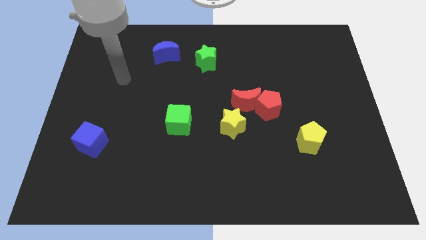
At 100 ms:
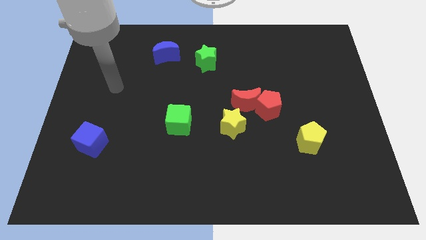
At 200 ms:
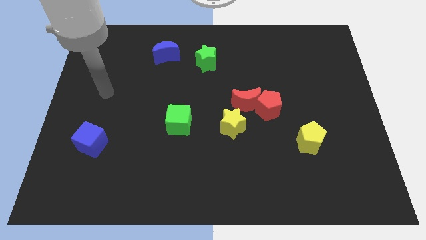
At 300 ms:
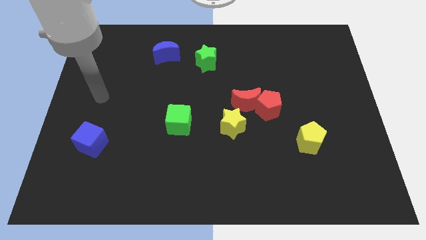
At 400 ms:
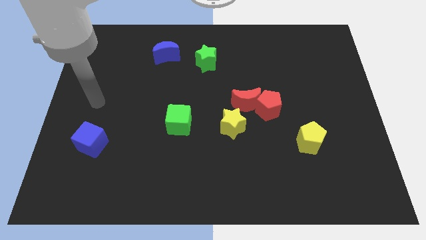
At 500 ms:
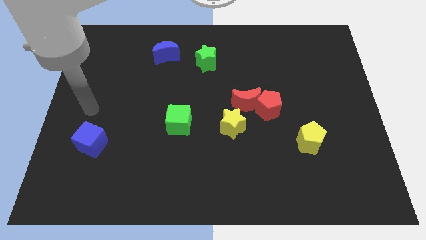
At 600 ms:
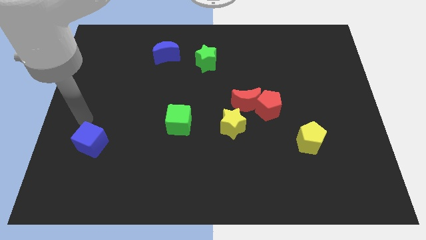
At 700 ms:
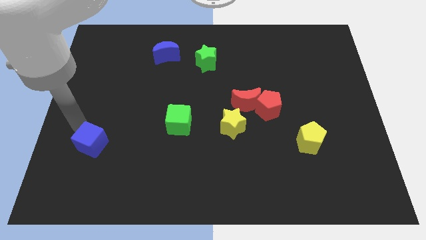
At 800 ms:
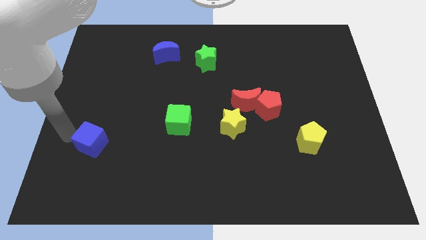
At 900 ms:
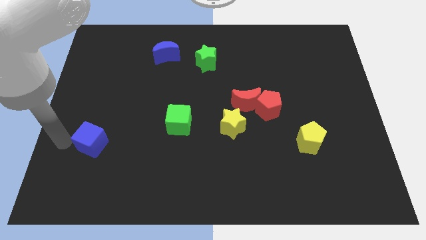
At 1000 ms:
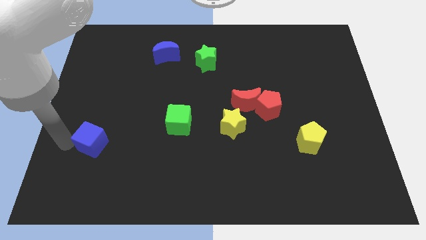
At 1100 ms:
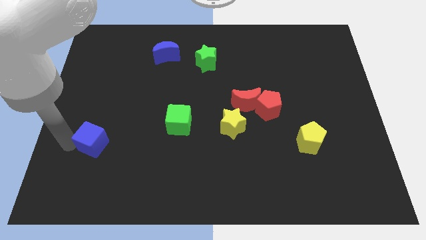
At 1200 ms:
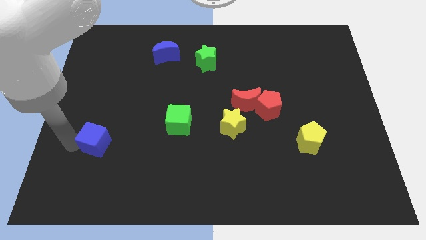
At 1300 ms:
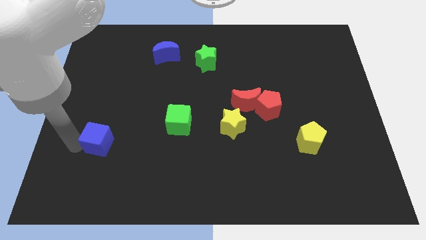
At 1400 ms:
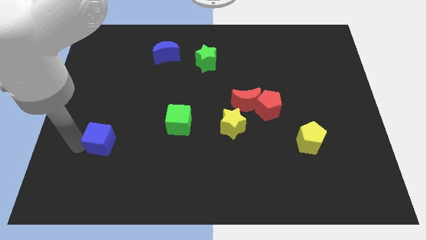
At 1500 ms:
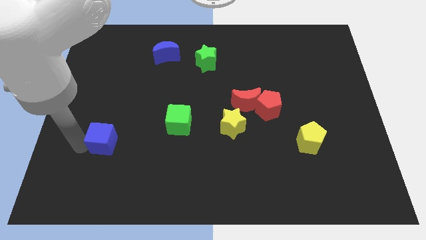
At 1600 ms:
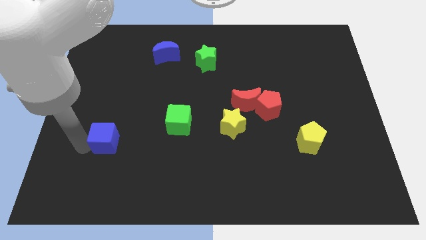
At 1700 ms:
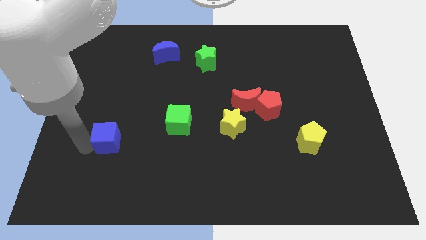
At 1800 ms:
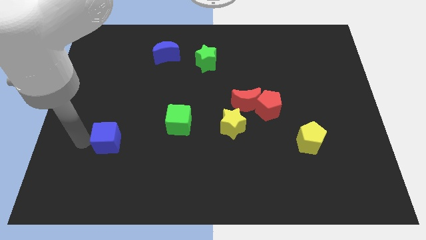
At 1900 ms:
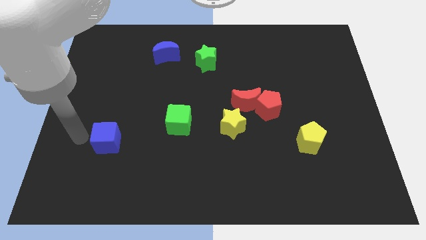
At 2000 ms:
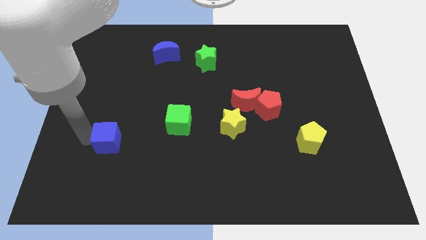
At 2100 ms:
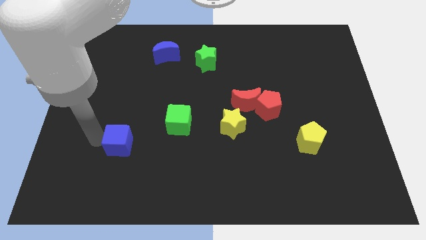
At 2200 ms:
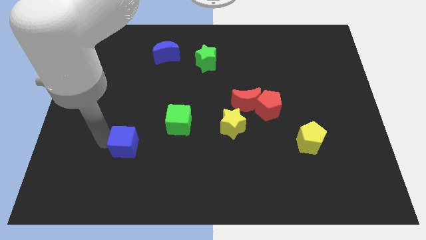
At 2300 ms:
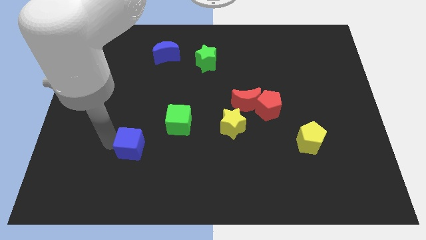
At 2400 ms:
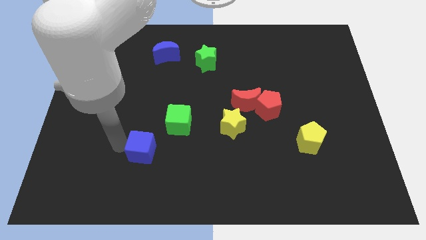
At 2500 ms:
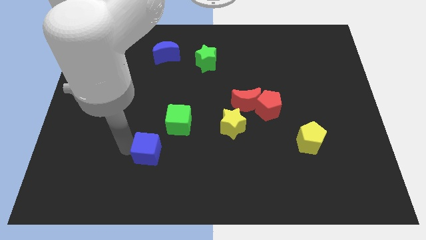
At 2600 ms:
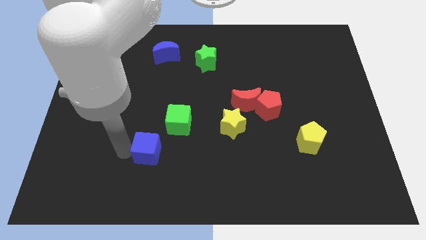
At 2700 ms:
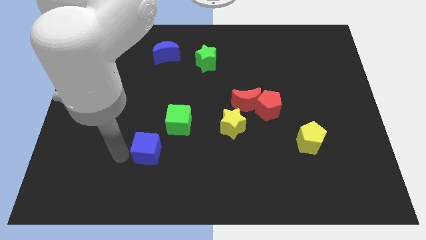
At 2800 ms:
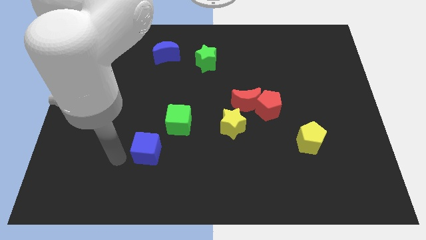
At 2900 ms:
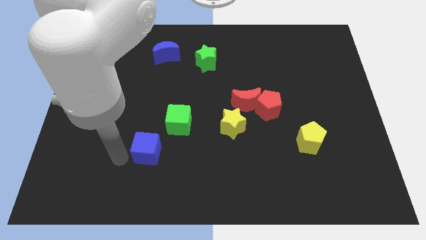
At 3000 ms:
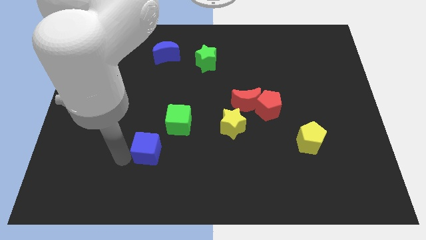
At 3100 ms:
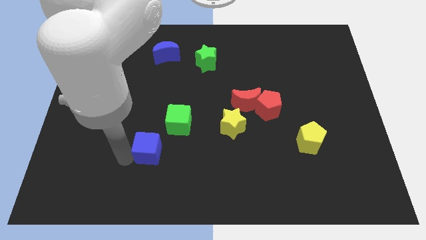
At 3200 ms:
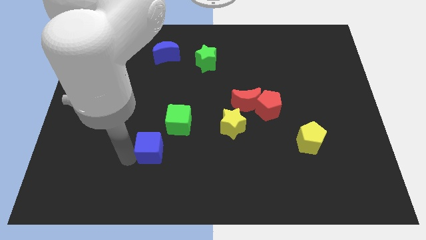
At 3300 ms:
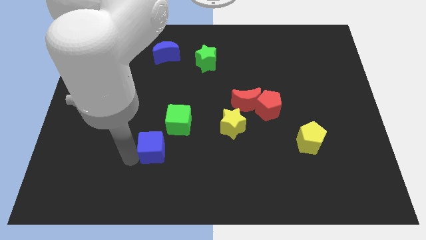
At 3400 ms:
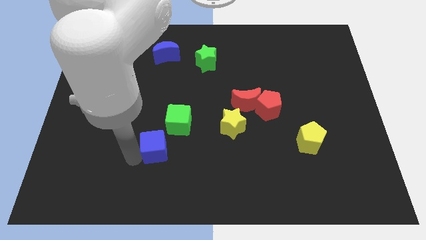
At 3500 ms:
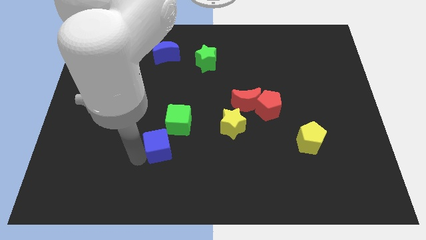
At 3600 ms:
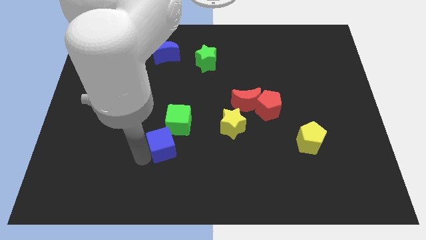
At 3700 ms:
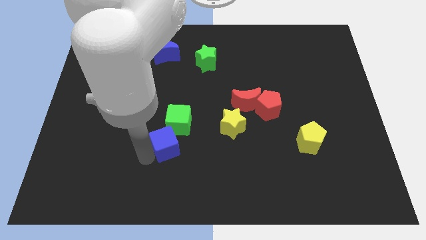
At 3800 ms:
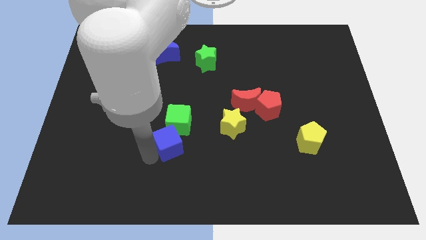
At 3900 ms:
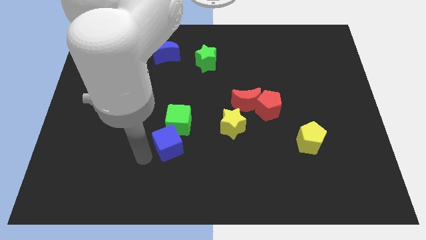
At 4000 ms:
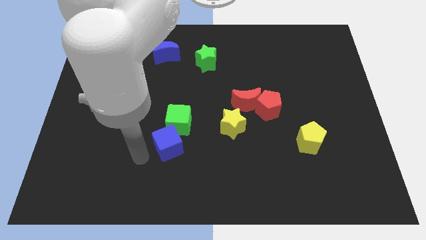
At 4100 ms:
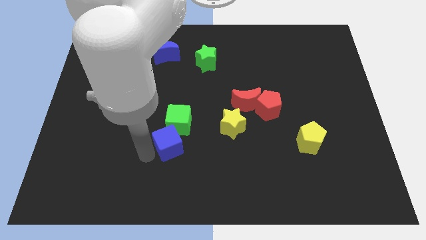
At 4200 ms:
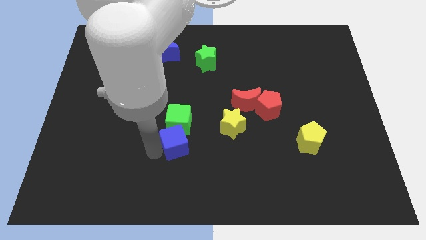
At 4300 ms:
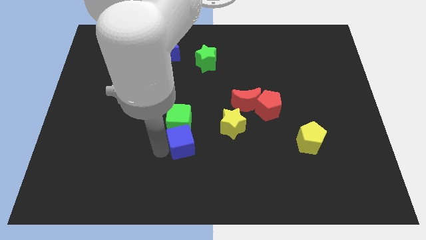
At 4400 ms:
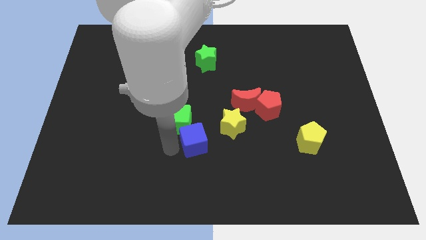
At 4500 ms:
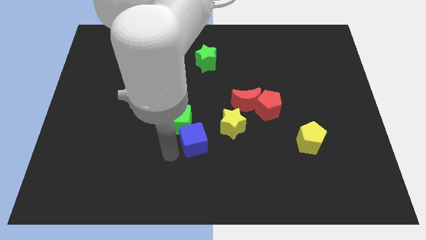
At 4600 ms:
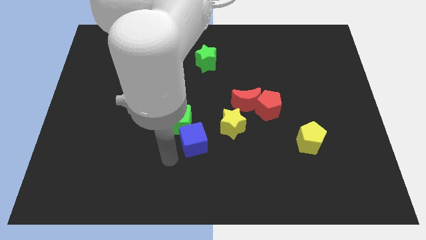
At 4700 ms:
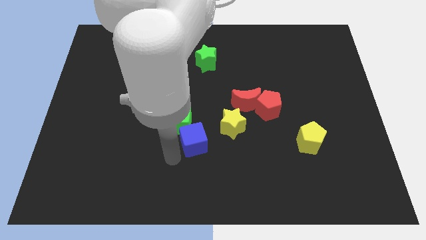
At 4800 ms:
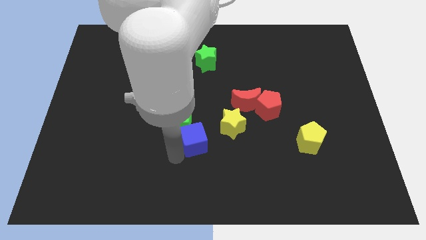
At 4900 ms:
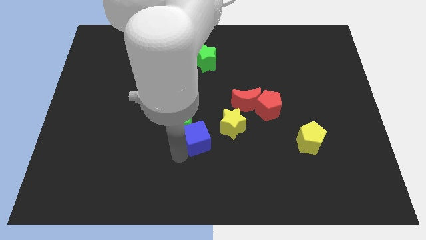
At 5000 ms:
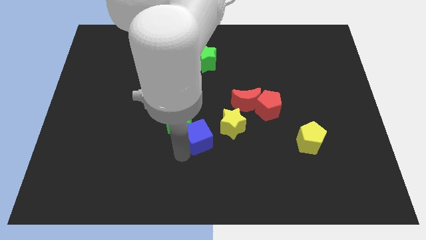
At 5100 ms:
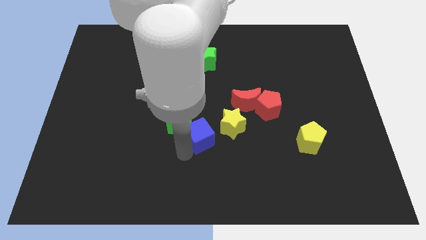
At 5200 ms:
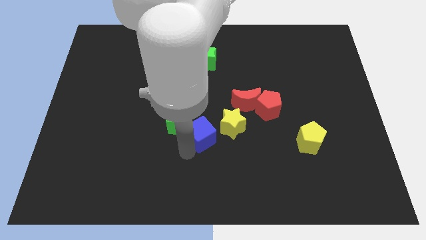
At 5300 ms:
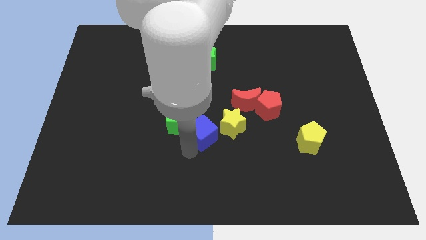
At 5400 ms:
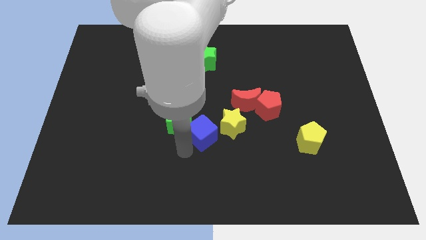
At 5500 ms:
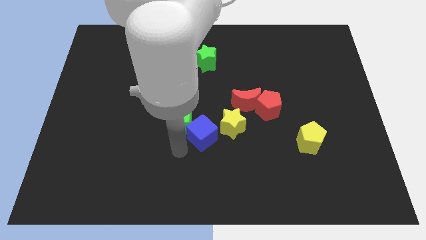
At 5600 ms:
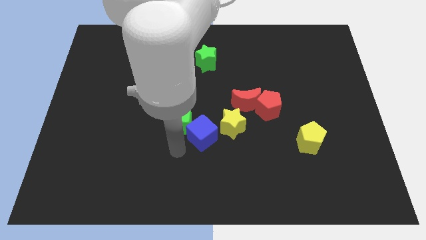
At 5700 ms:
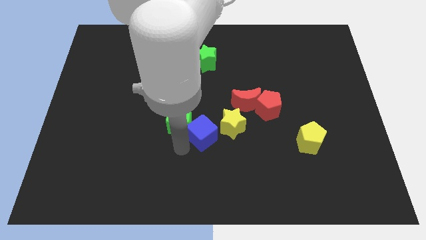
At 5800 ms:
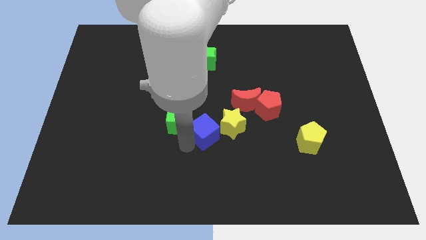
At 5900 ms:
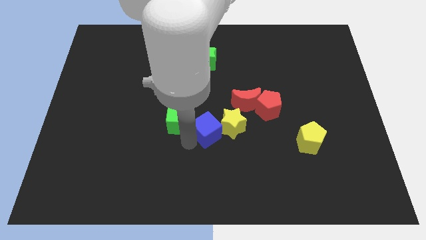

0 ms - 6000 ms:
put the blue cube next to the yellow star

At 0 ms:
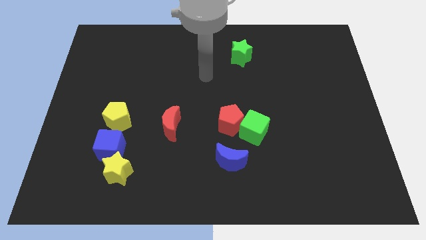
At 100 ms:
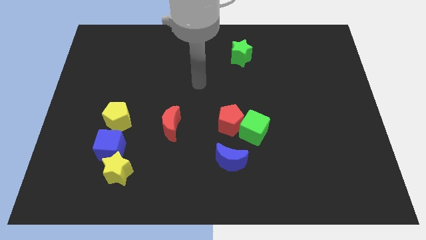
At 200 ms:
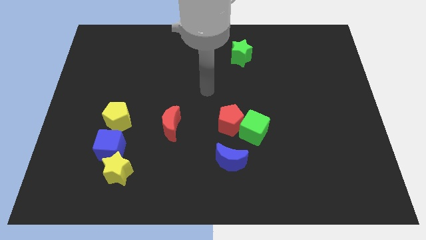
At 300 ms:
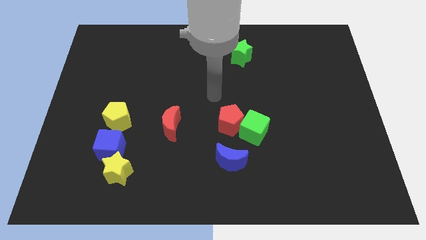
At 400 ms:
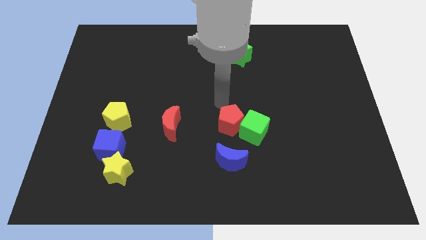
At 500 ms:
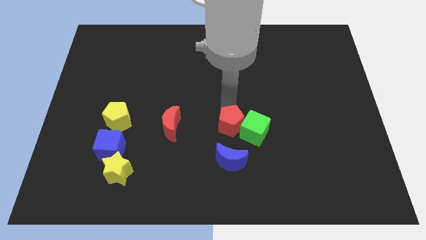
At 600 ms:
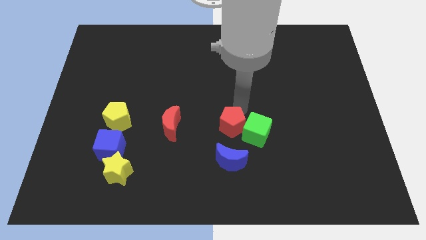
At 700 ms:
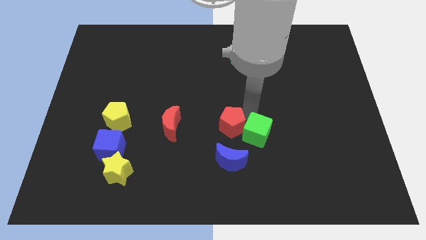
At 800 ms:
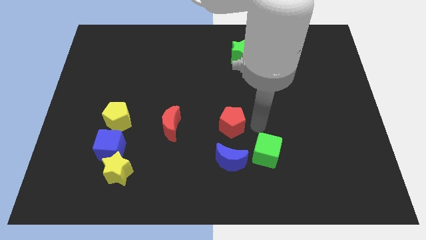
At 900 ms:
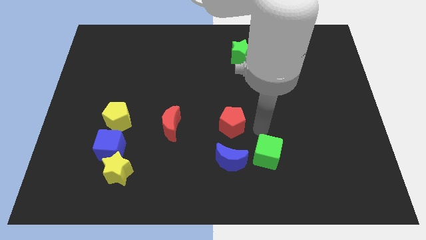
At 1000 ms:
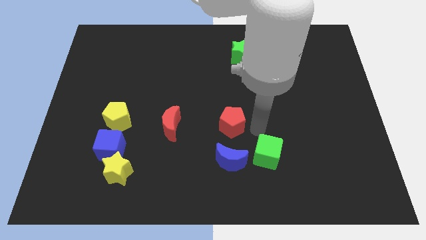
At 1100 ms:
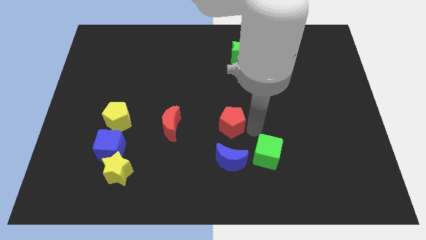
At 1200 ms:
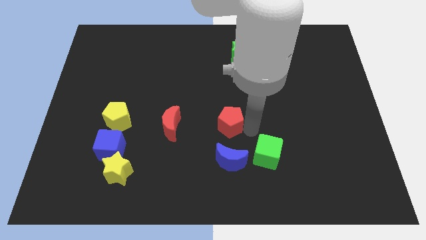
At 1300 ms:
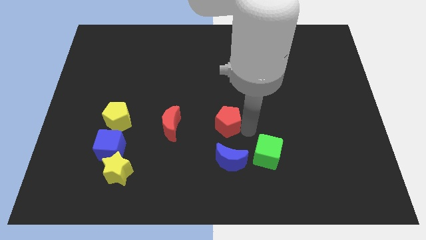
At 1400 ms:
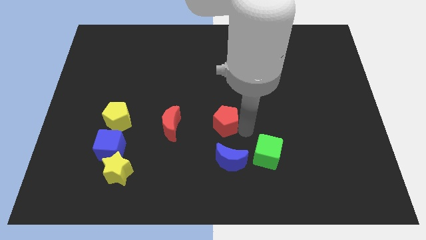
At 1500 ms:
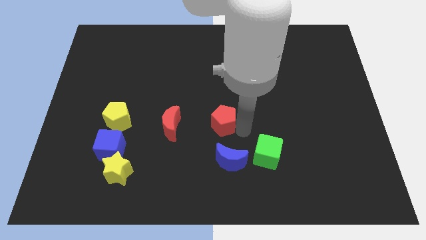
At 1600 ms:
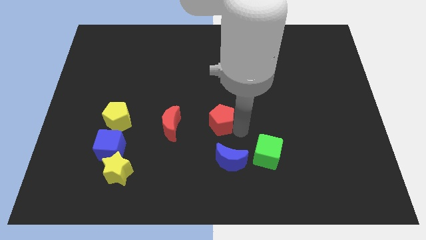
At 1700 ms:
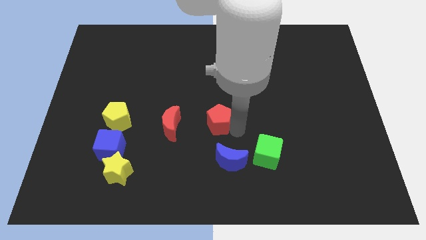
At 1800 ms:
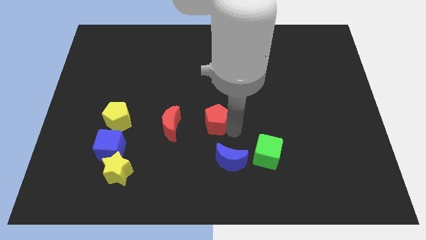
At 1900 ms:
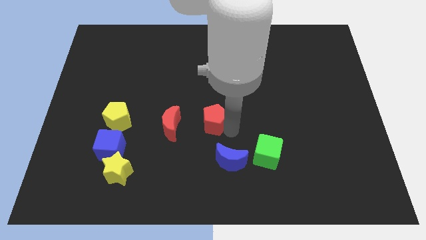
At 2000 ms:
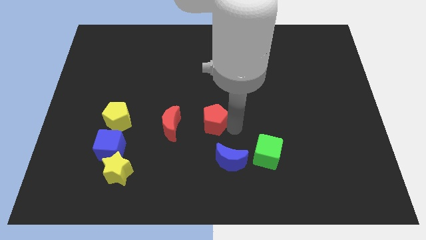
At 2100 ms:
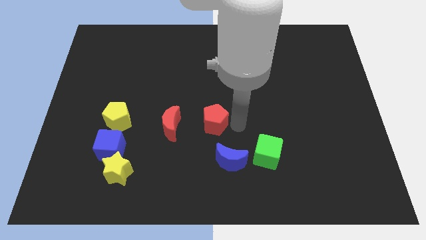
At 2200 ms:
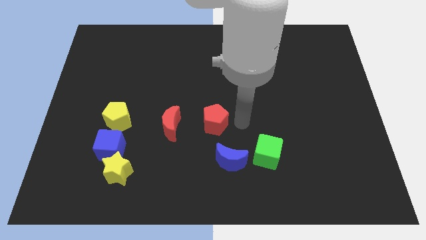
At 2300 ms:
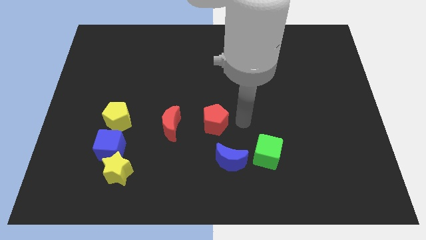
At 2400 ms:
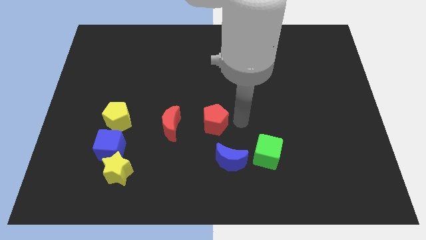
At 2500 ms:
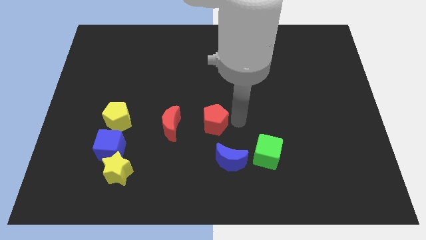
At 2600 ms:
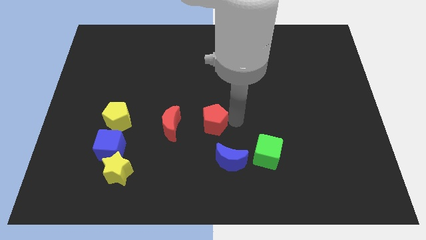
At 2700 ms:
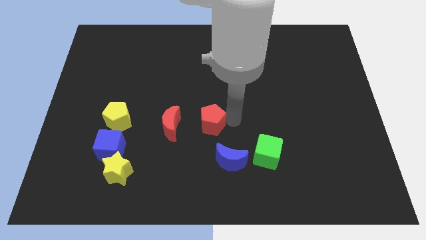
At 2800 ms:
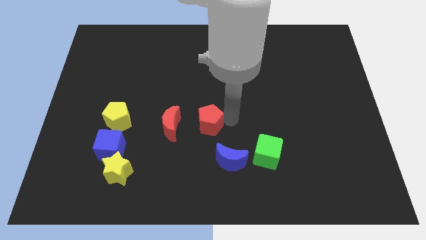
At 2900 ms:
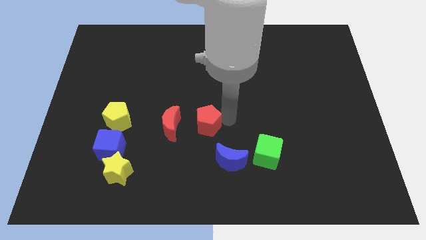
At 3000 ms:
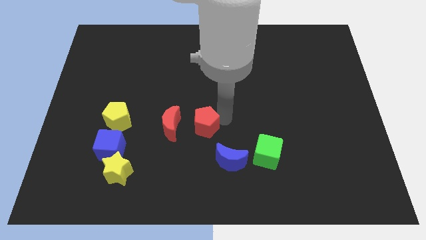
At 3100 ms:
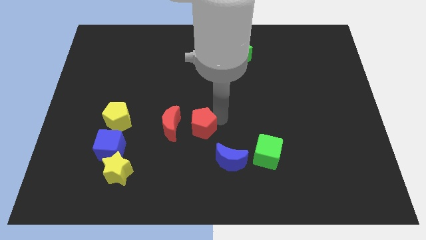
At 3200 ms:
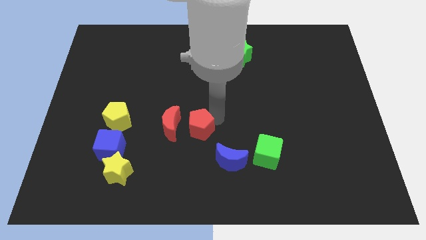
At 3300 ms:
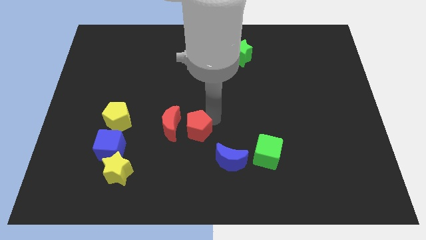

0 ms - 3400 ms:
put the red pentagon towards the red moon
